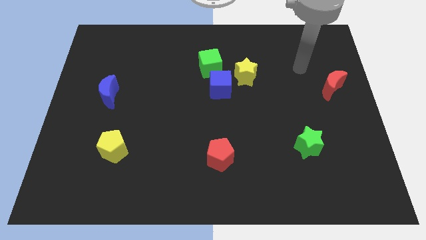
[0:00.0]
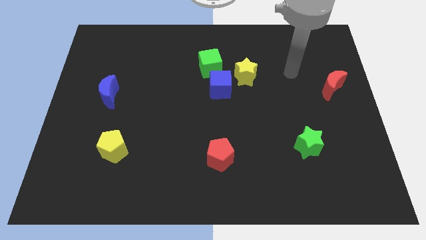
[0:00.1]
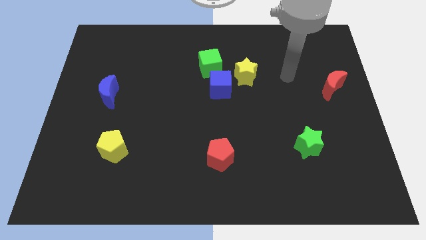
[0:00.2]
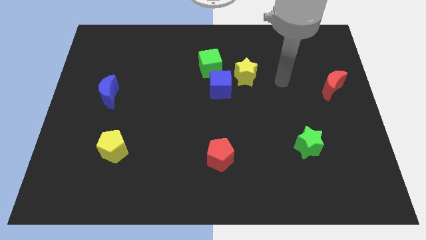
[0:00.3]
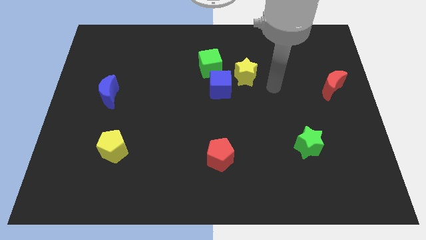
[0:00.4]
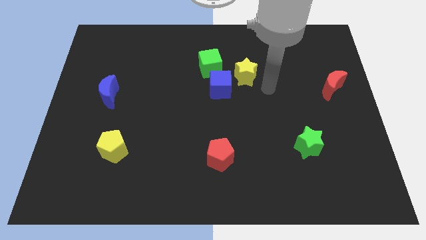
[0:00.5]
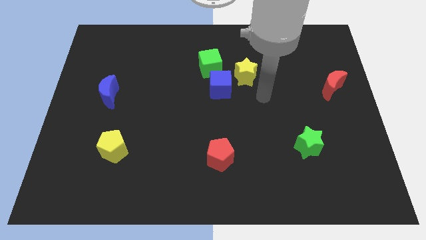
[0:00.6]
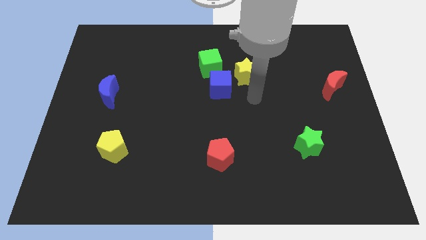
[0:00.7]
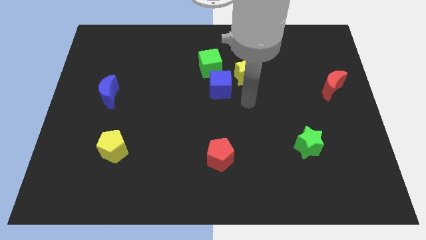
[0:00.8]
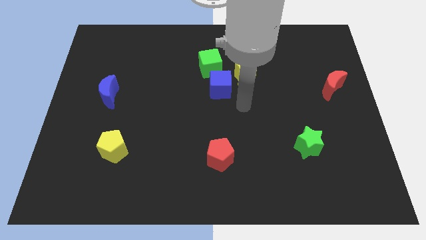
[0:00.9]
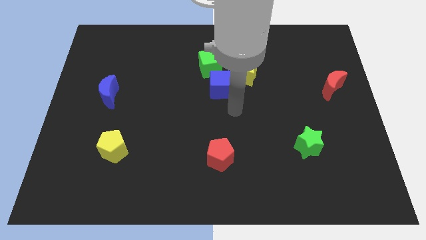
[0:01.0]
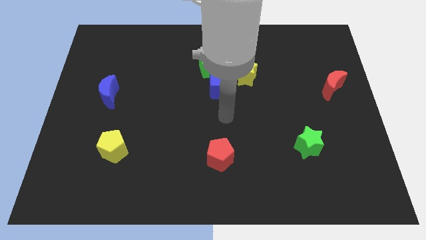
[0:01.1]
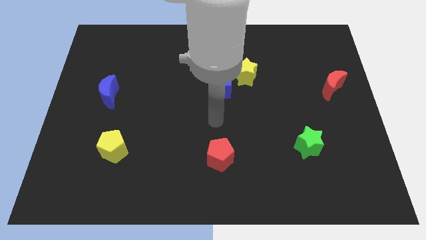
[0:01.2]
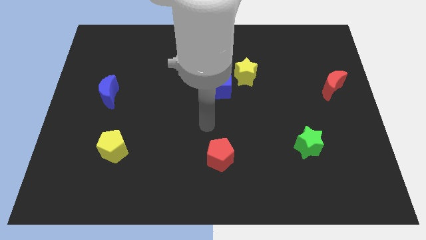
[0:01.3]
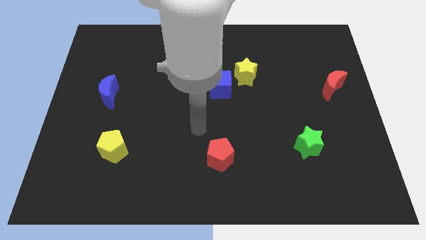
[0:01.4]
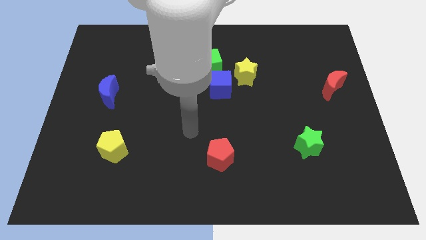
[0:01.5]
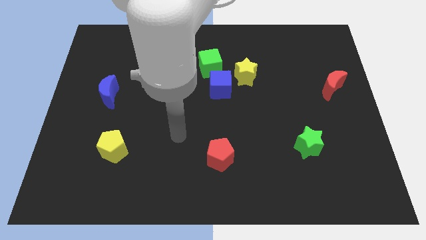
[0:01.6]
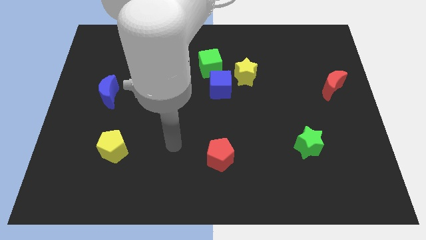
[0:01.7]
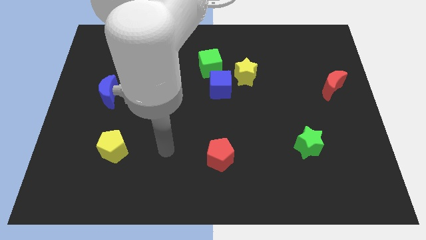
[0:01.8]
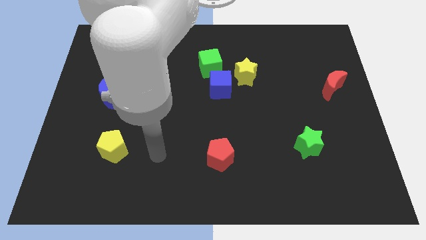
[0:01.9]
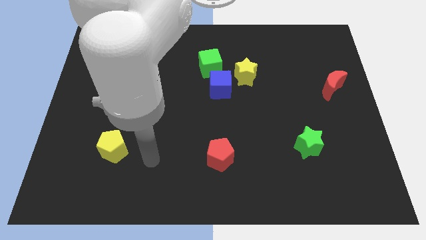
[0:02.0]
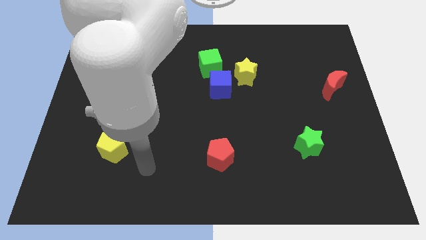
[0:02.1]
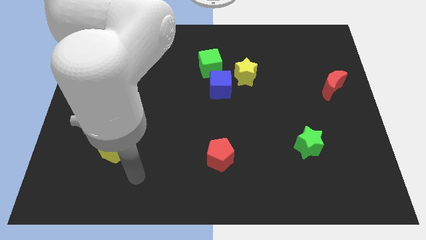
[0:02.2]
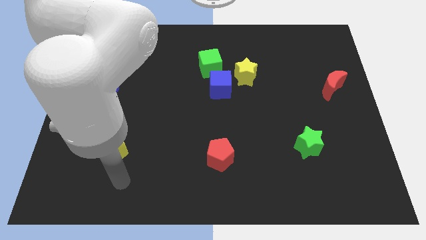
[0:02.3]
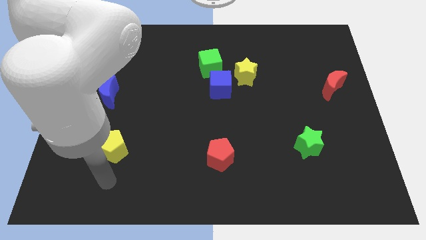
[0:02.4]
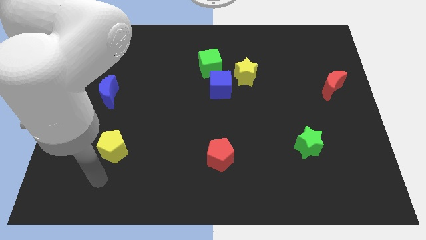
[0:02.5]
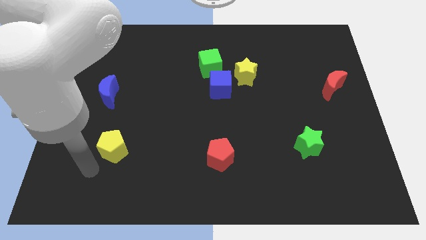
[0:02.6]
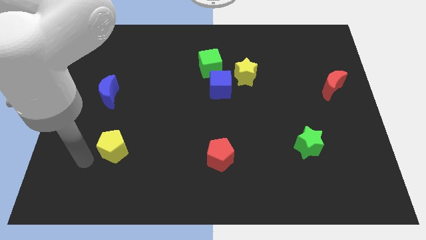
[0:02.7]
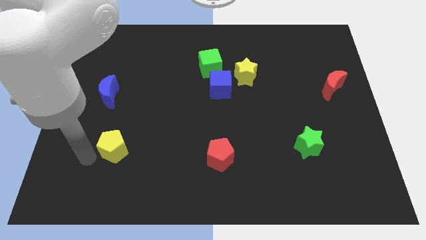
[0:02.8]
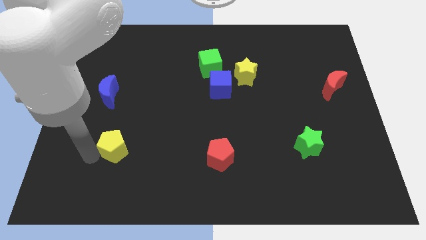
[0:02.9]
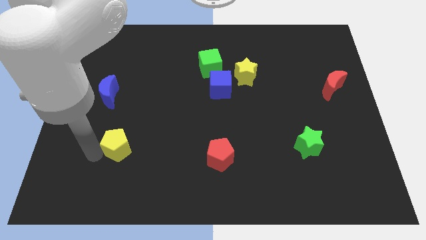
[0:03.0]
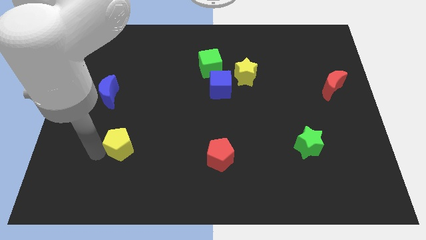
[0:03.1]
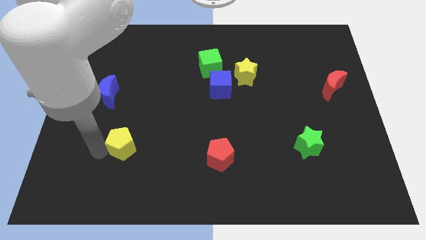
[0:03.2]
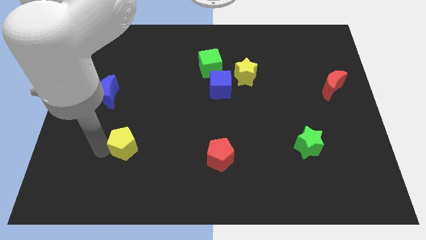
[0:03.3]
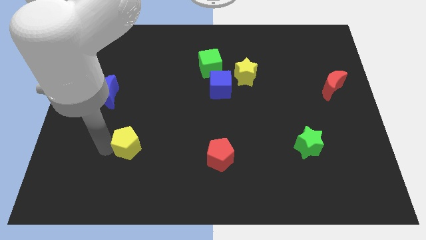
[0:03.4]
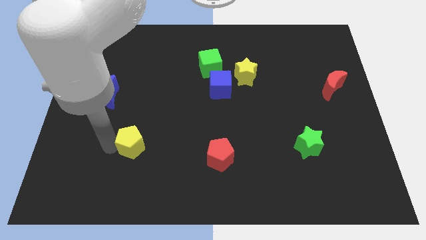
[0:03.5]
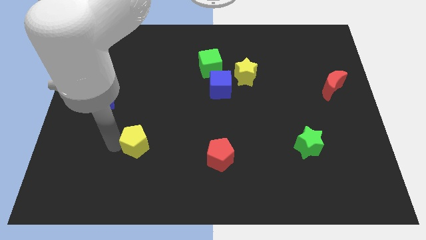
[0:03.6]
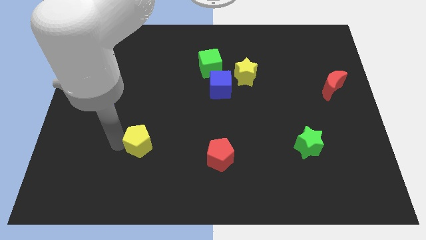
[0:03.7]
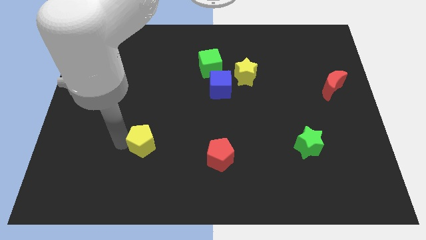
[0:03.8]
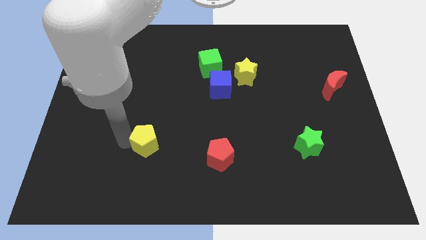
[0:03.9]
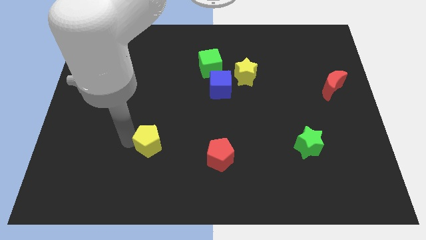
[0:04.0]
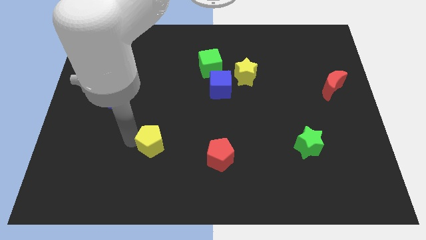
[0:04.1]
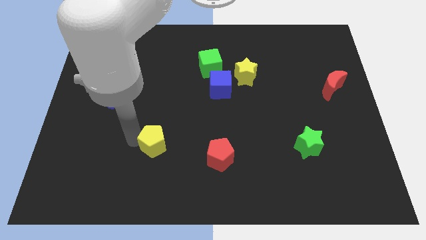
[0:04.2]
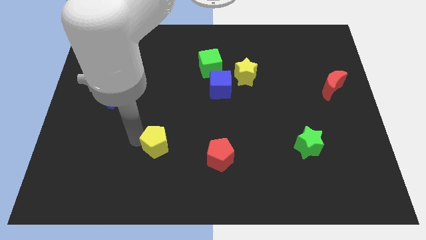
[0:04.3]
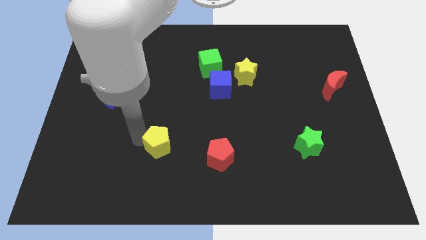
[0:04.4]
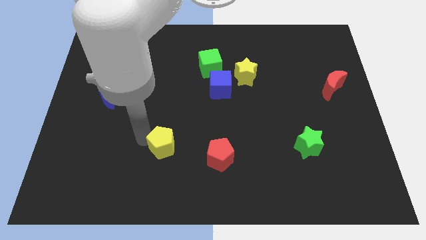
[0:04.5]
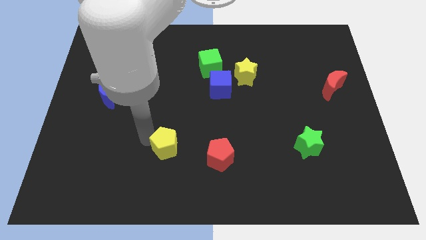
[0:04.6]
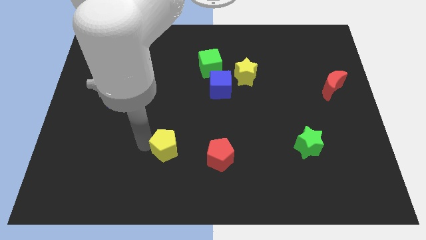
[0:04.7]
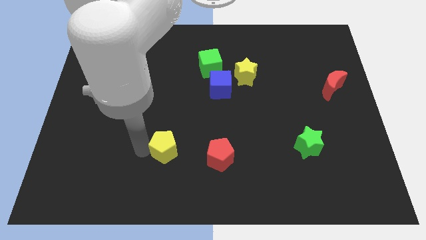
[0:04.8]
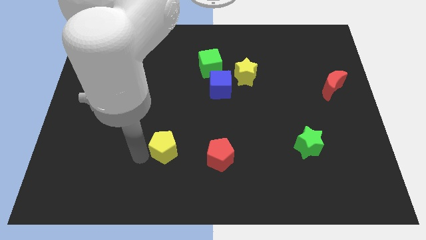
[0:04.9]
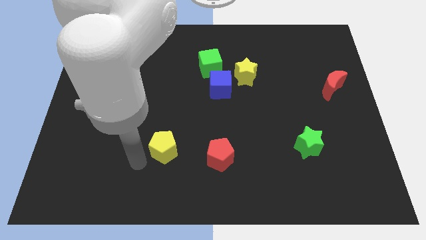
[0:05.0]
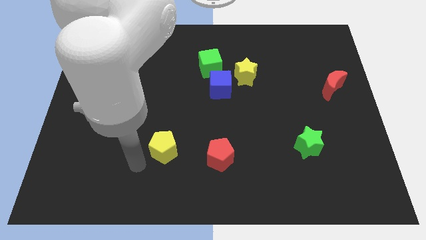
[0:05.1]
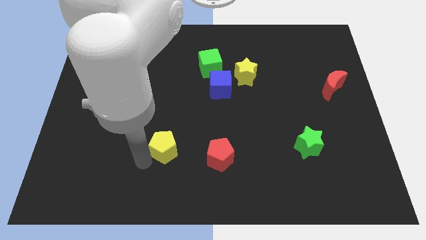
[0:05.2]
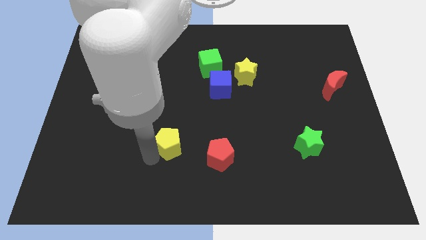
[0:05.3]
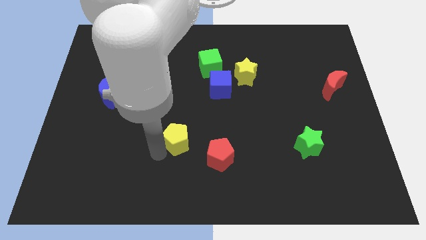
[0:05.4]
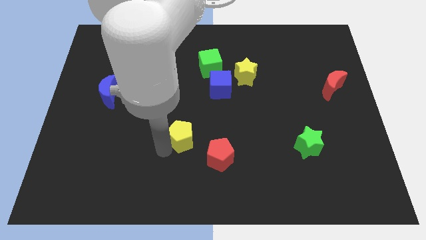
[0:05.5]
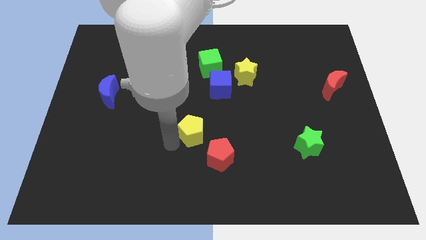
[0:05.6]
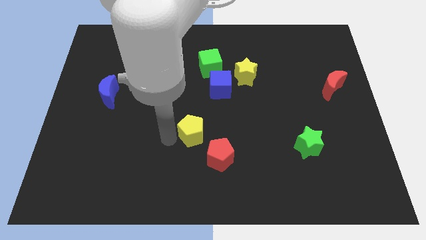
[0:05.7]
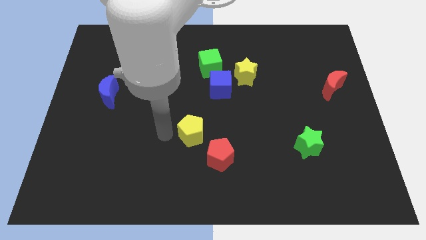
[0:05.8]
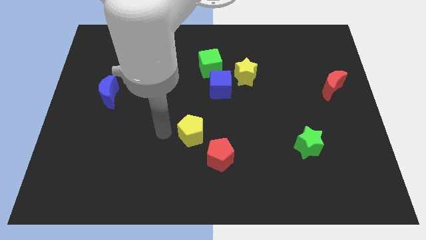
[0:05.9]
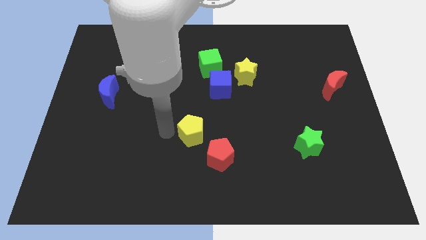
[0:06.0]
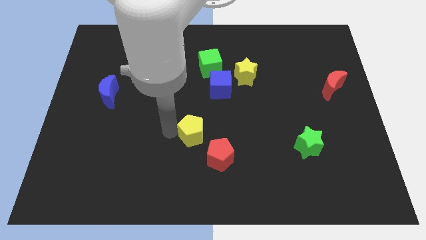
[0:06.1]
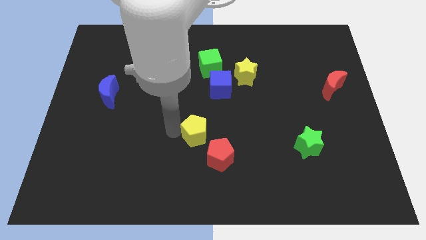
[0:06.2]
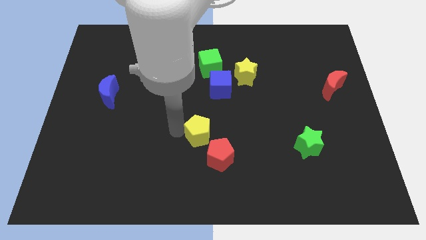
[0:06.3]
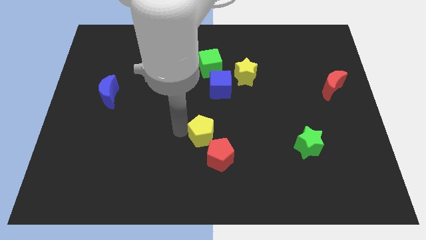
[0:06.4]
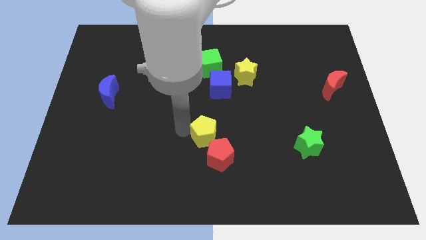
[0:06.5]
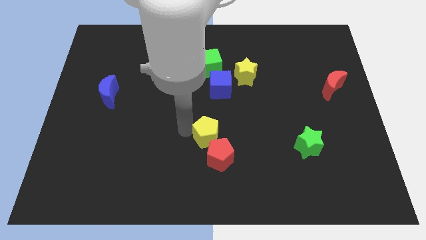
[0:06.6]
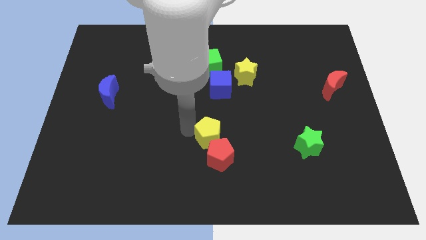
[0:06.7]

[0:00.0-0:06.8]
push the yellow pentagon to the right

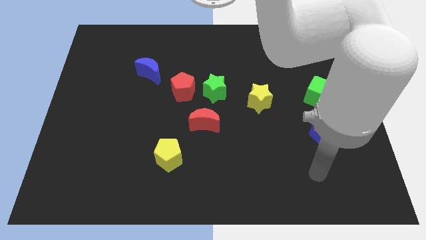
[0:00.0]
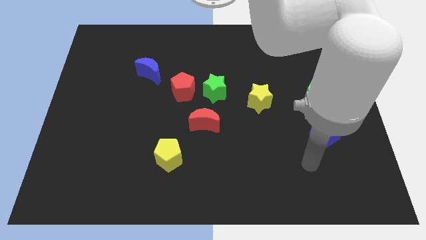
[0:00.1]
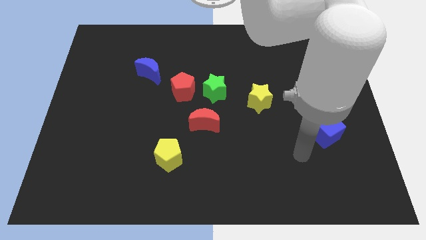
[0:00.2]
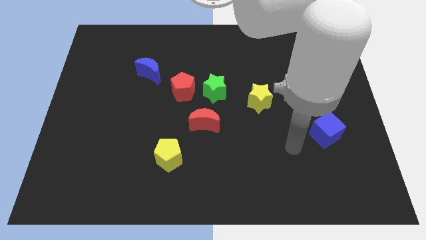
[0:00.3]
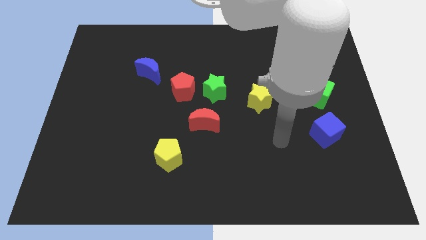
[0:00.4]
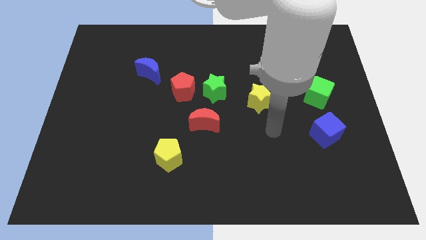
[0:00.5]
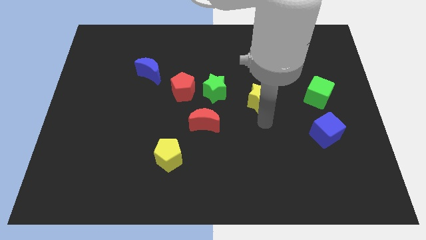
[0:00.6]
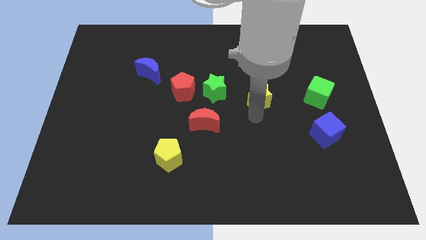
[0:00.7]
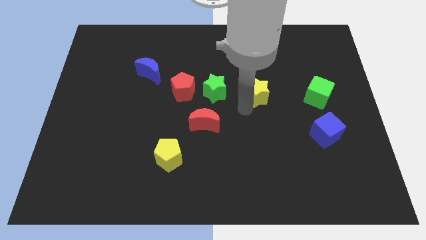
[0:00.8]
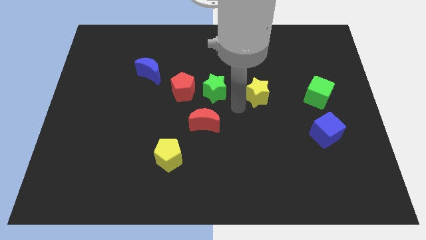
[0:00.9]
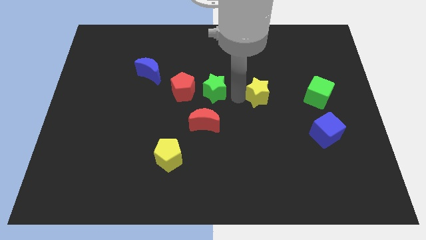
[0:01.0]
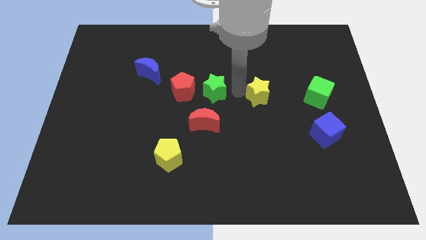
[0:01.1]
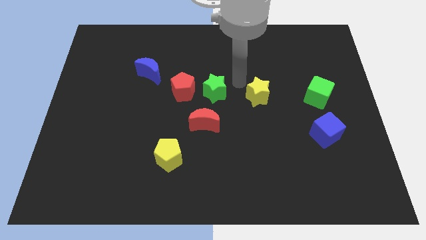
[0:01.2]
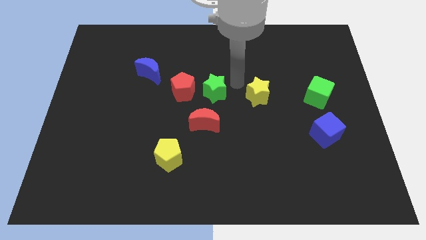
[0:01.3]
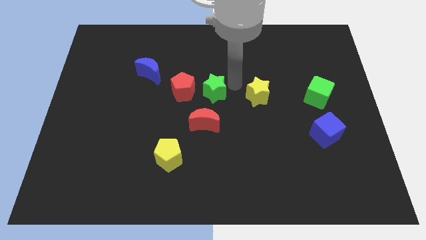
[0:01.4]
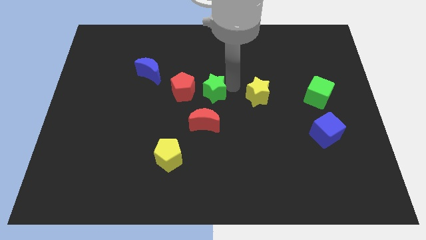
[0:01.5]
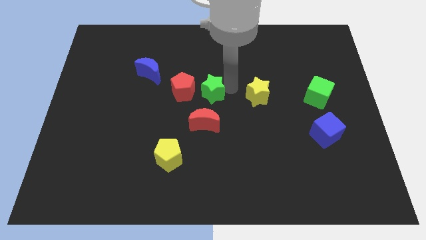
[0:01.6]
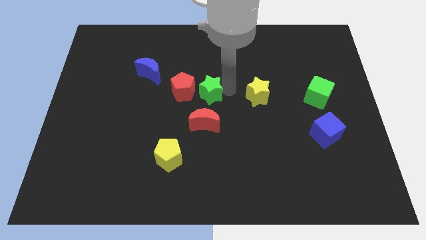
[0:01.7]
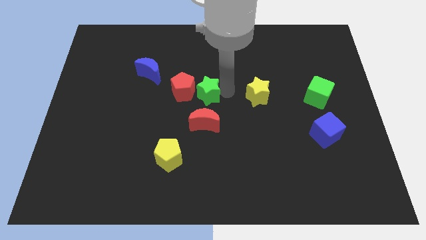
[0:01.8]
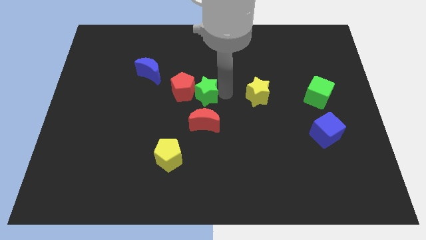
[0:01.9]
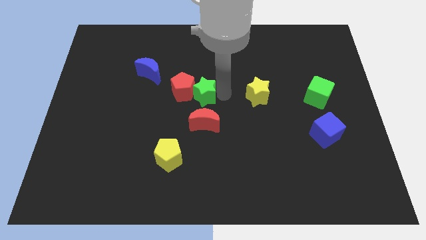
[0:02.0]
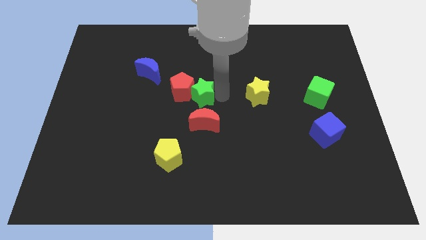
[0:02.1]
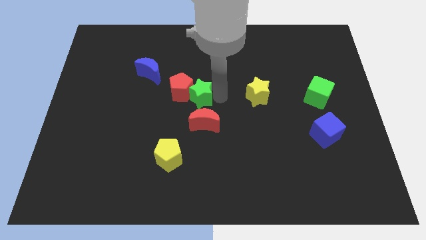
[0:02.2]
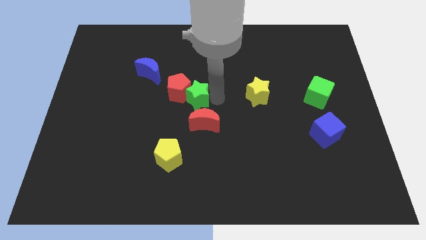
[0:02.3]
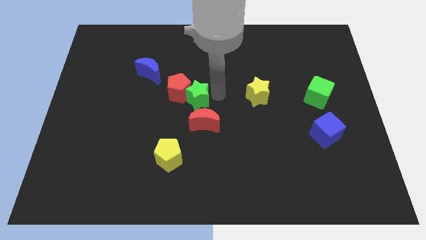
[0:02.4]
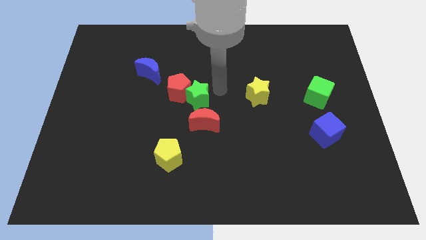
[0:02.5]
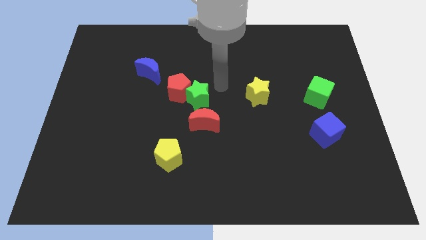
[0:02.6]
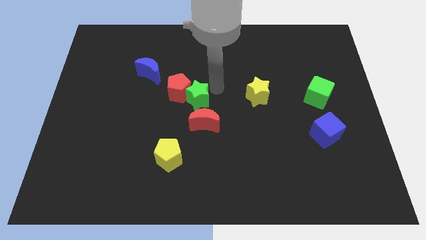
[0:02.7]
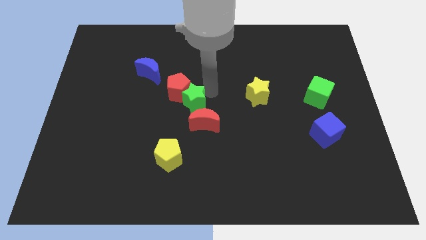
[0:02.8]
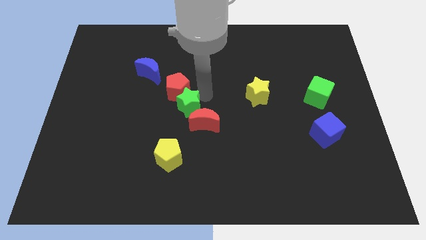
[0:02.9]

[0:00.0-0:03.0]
slightly move the green star diagonally downwards and to the left
